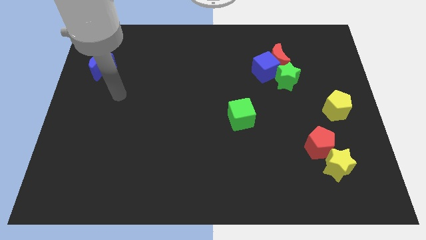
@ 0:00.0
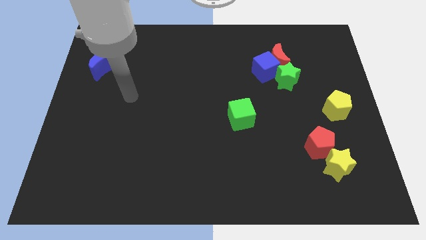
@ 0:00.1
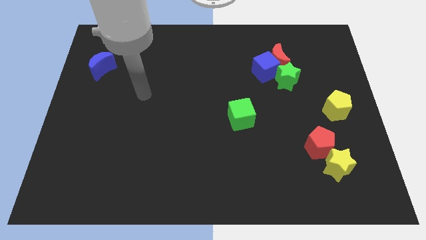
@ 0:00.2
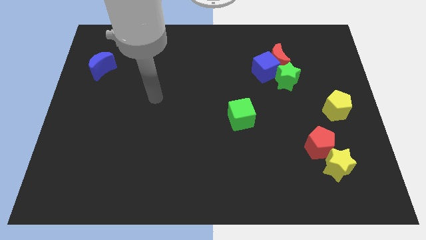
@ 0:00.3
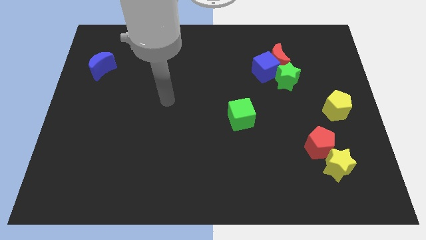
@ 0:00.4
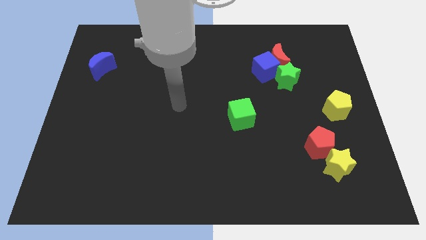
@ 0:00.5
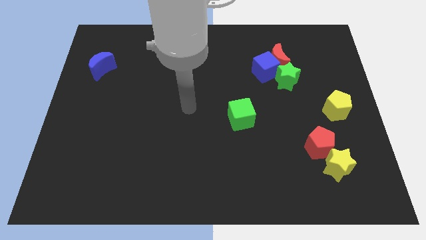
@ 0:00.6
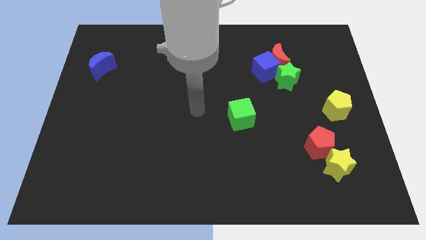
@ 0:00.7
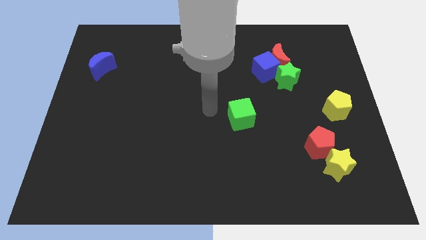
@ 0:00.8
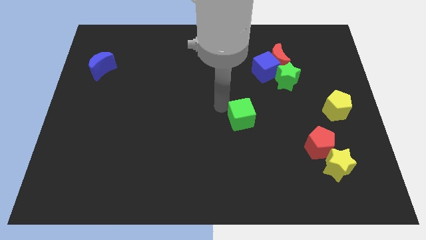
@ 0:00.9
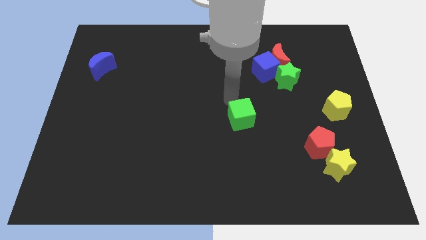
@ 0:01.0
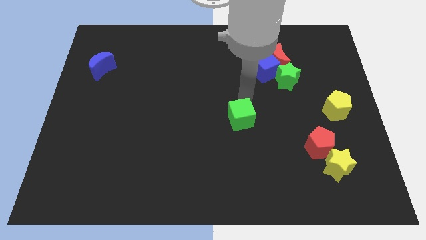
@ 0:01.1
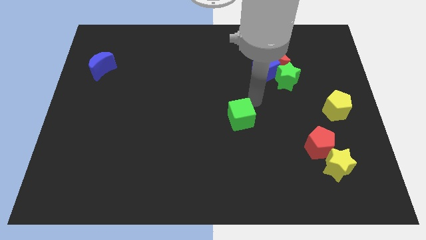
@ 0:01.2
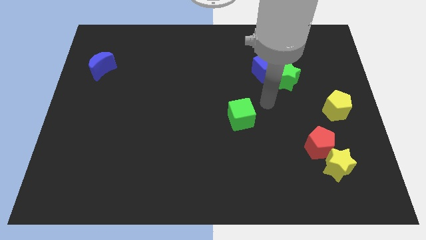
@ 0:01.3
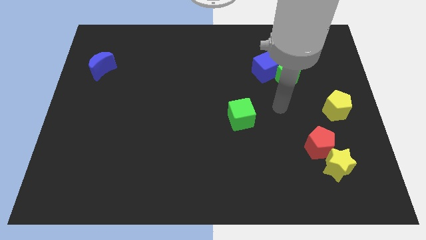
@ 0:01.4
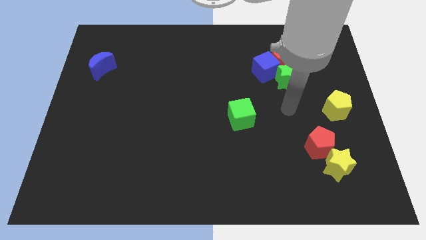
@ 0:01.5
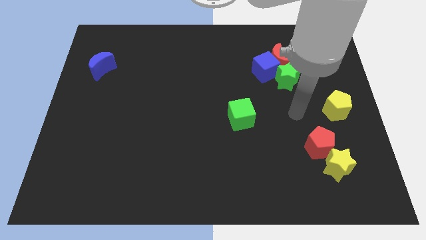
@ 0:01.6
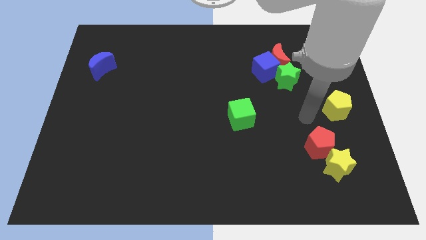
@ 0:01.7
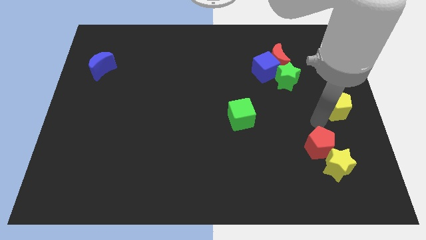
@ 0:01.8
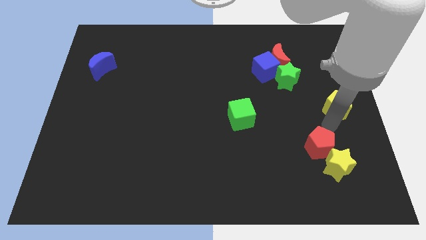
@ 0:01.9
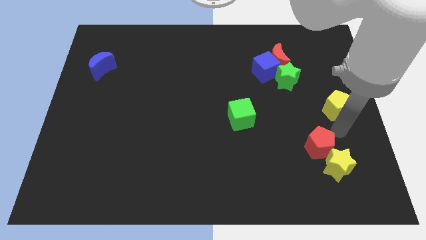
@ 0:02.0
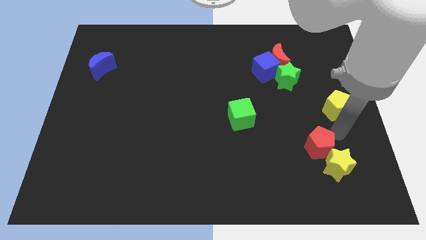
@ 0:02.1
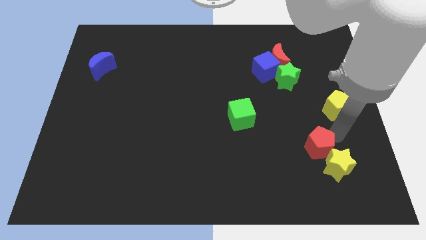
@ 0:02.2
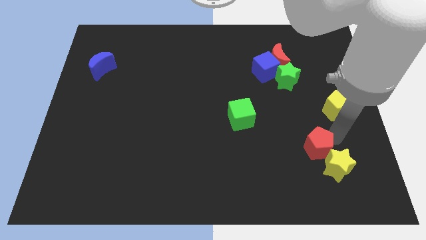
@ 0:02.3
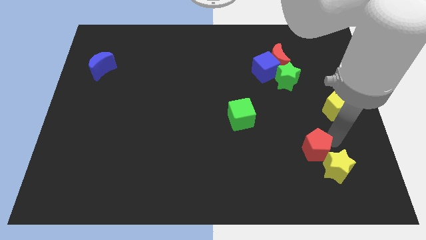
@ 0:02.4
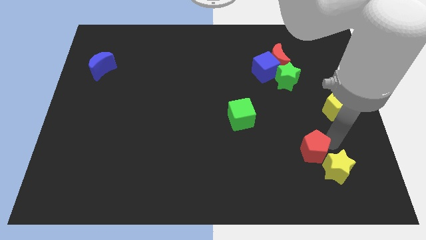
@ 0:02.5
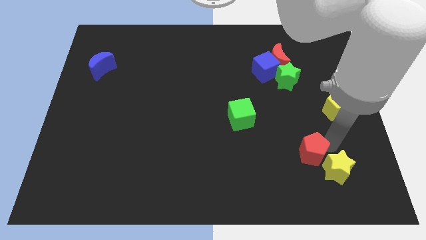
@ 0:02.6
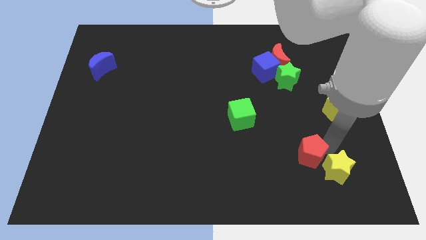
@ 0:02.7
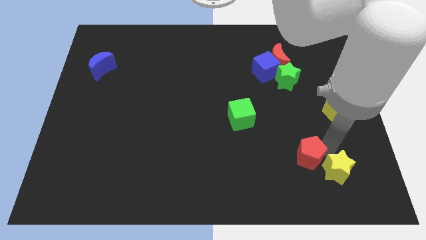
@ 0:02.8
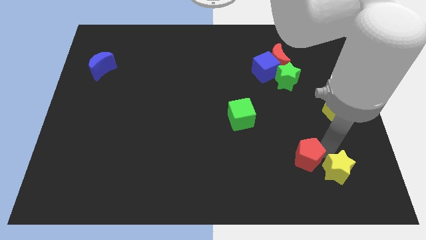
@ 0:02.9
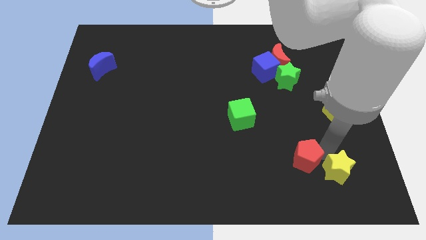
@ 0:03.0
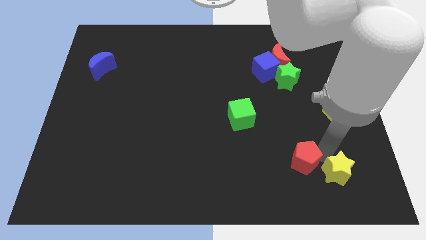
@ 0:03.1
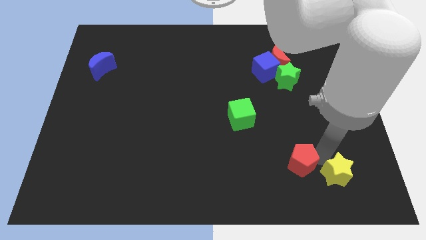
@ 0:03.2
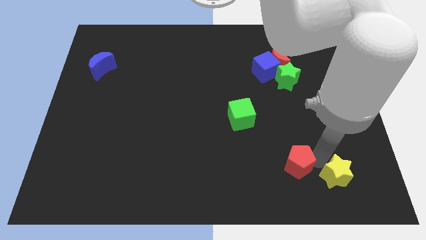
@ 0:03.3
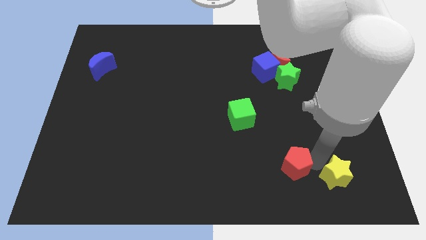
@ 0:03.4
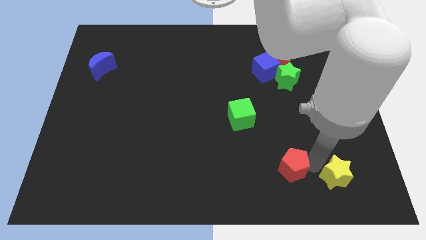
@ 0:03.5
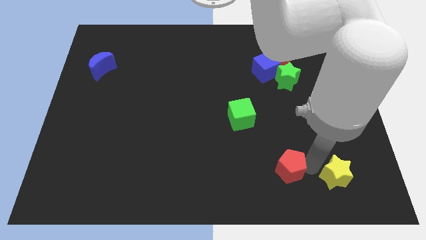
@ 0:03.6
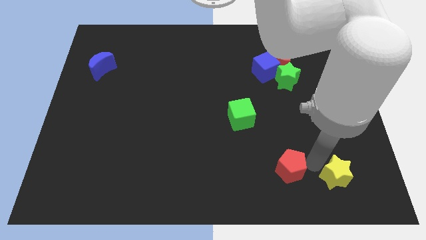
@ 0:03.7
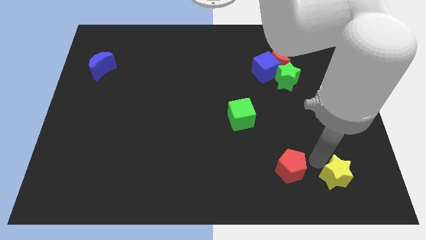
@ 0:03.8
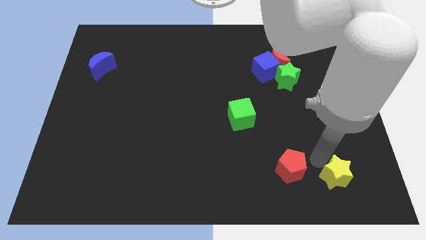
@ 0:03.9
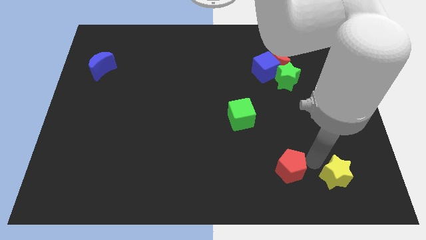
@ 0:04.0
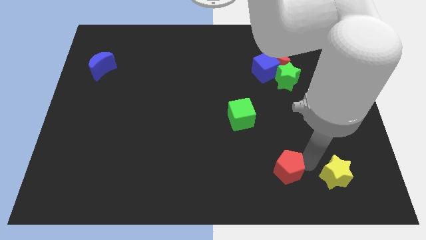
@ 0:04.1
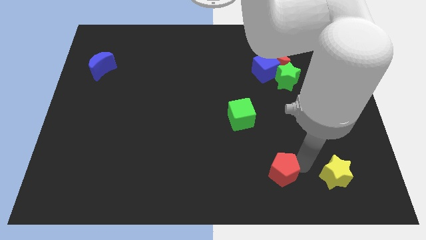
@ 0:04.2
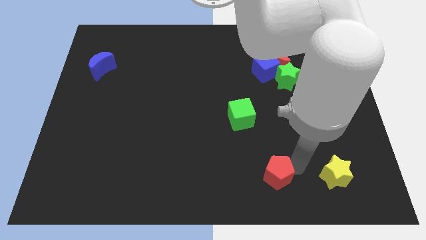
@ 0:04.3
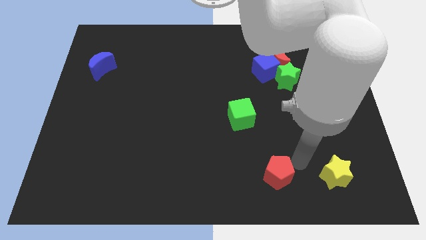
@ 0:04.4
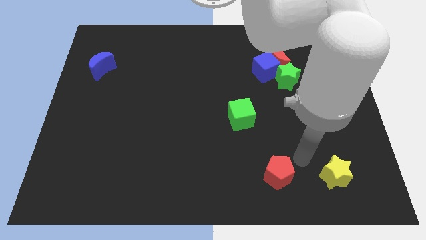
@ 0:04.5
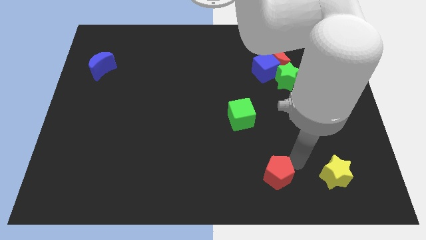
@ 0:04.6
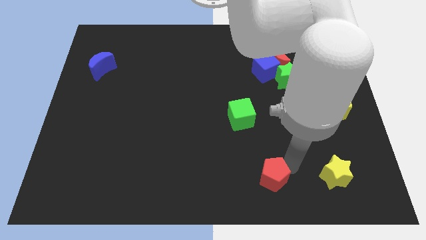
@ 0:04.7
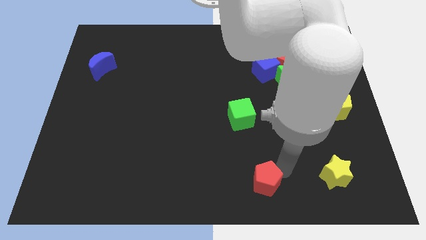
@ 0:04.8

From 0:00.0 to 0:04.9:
slide the red pentagon to the bottom side

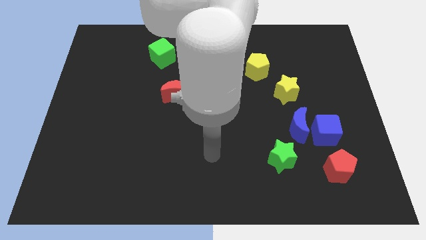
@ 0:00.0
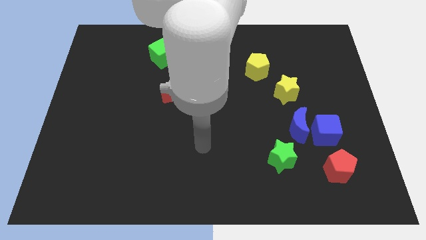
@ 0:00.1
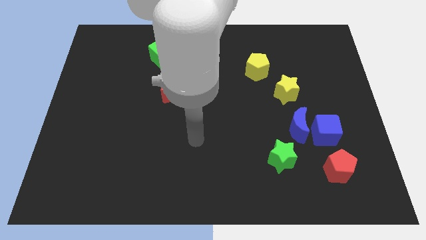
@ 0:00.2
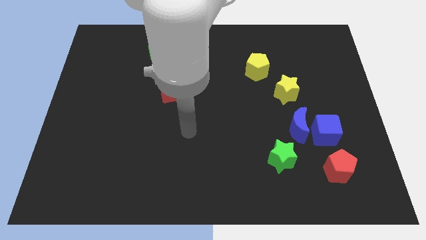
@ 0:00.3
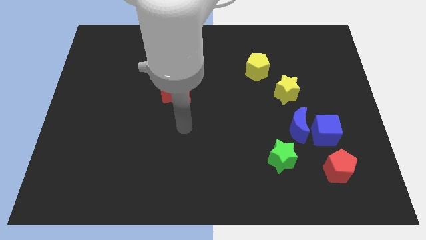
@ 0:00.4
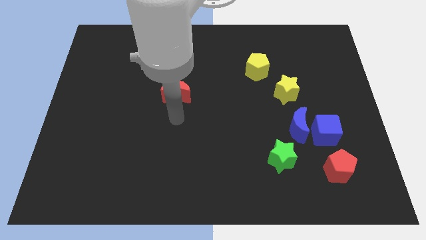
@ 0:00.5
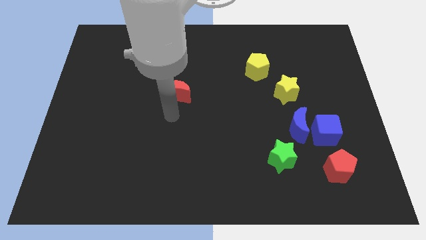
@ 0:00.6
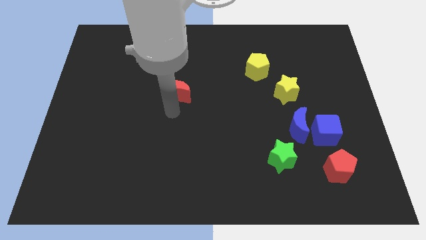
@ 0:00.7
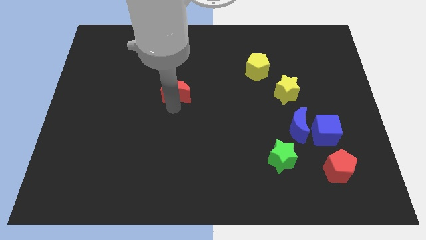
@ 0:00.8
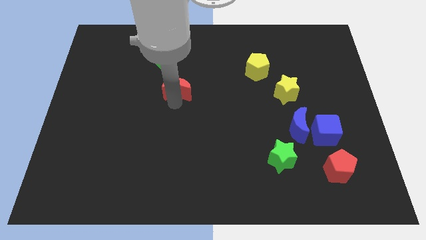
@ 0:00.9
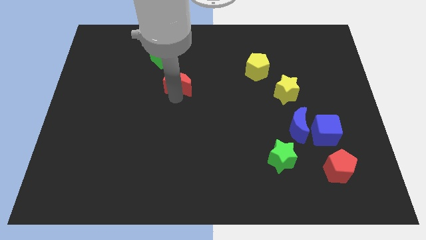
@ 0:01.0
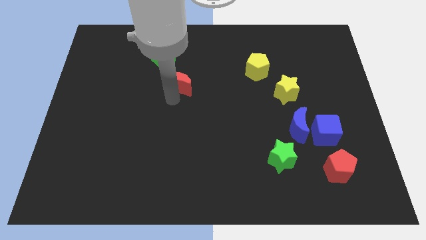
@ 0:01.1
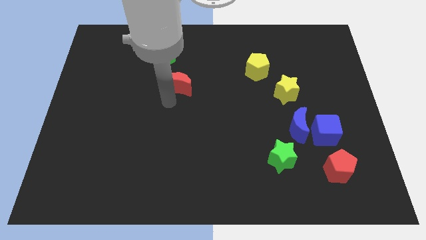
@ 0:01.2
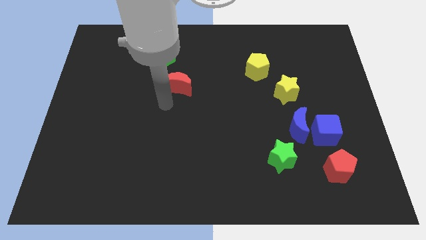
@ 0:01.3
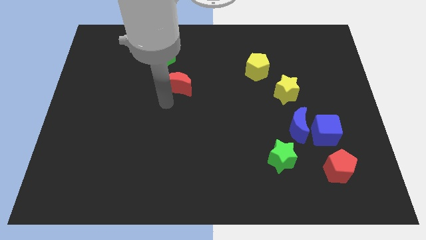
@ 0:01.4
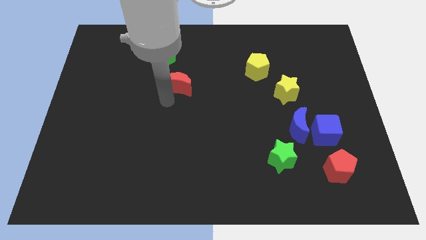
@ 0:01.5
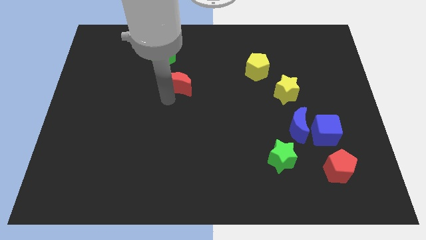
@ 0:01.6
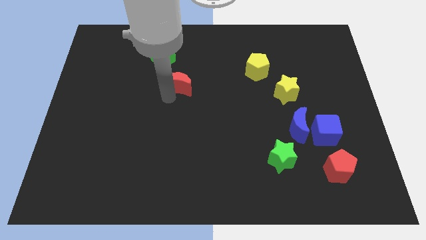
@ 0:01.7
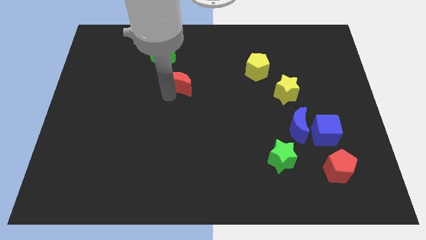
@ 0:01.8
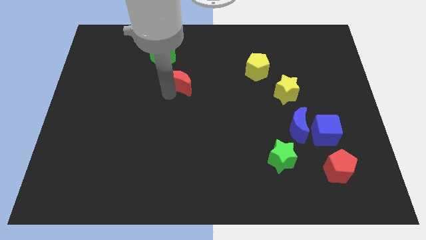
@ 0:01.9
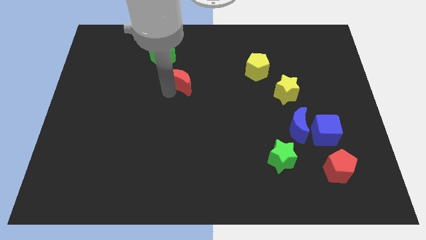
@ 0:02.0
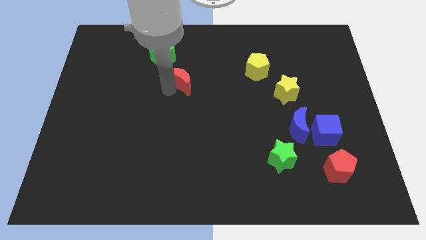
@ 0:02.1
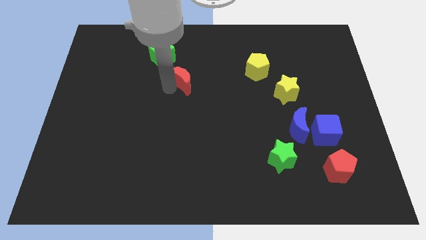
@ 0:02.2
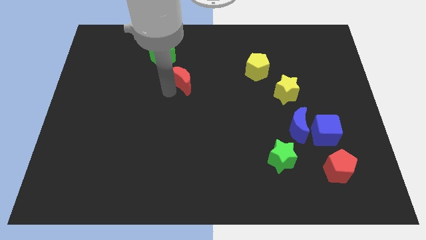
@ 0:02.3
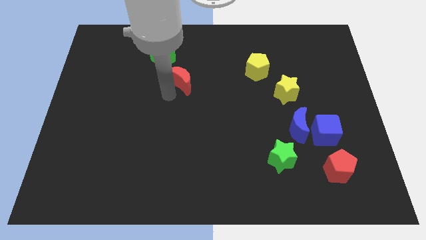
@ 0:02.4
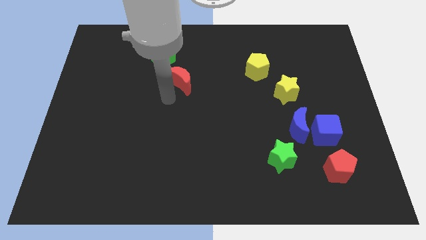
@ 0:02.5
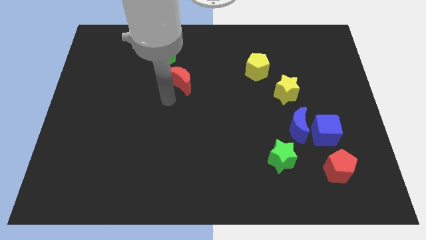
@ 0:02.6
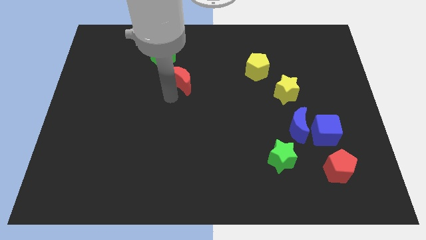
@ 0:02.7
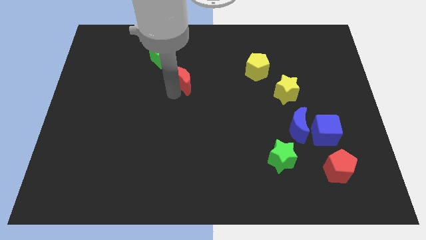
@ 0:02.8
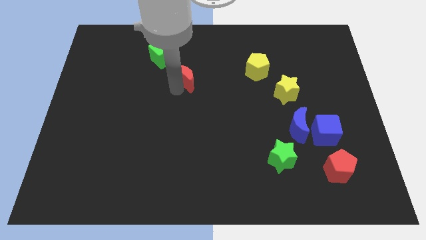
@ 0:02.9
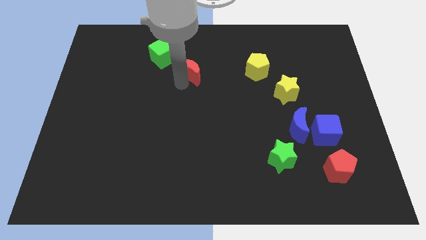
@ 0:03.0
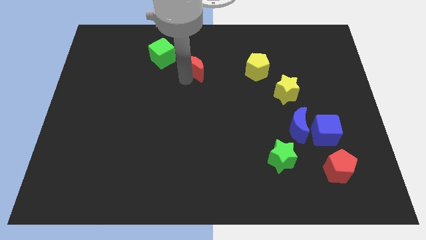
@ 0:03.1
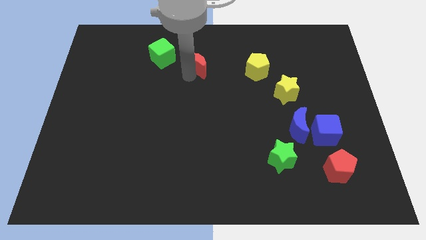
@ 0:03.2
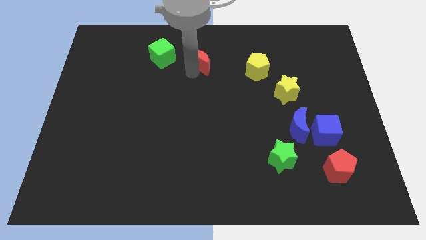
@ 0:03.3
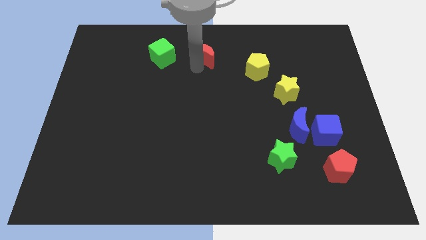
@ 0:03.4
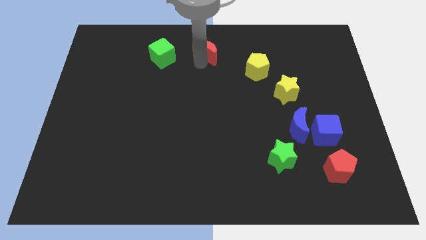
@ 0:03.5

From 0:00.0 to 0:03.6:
move the red moon to the towards your base
